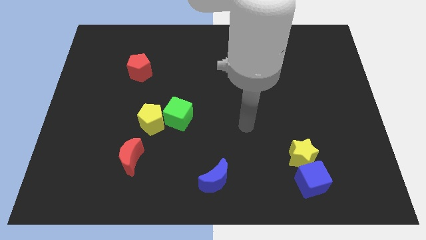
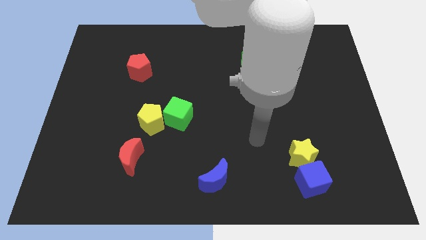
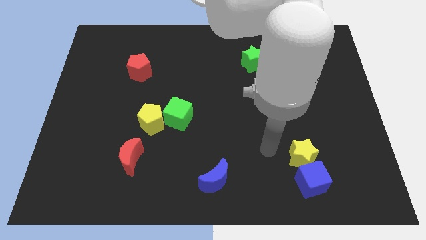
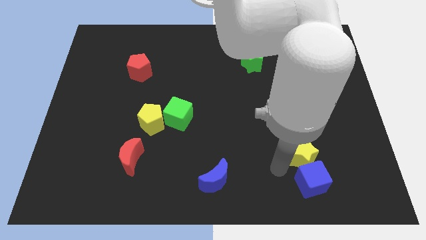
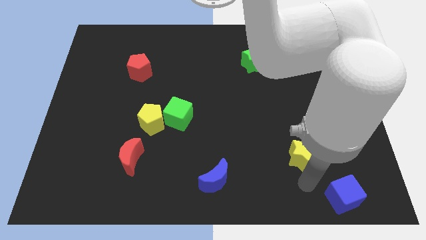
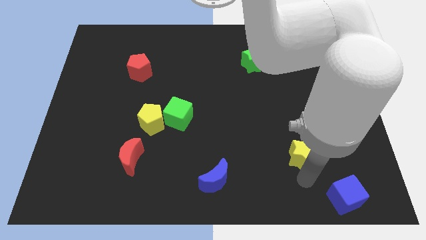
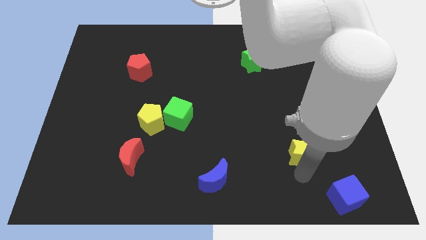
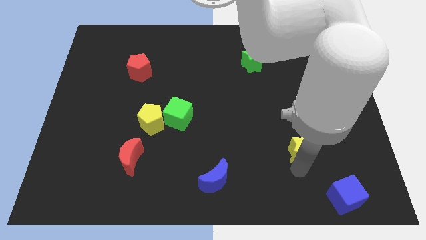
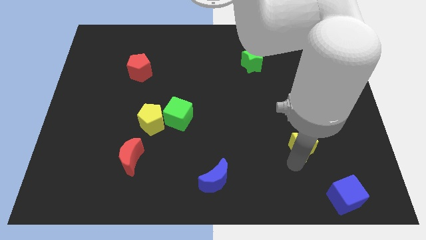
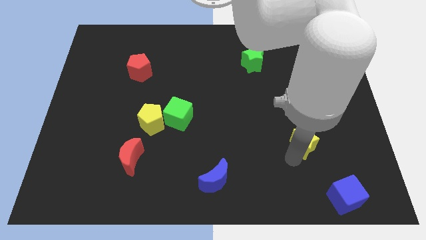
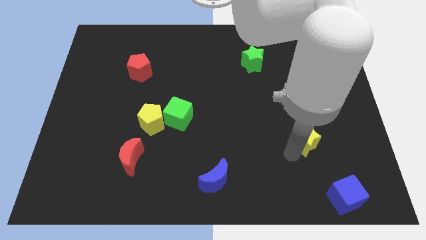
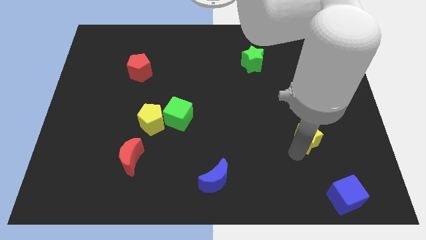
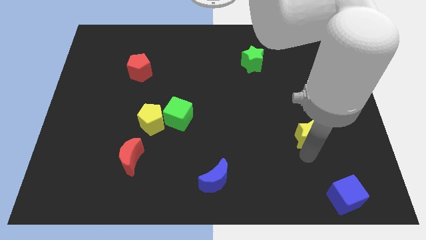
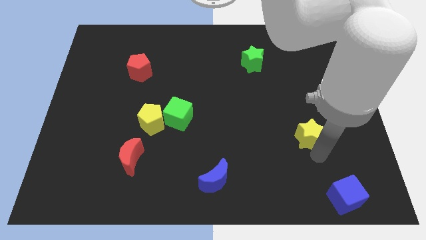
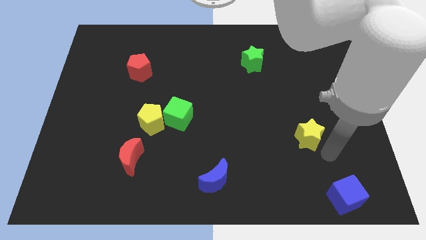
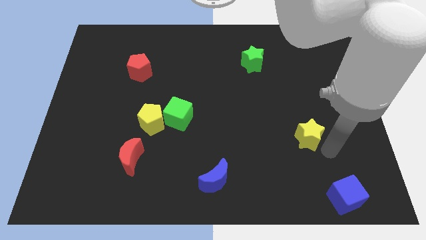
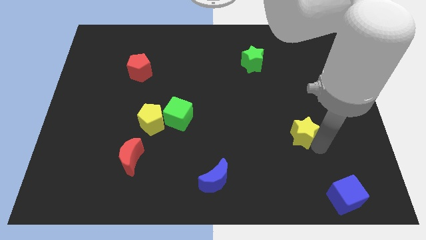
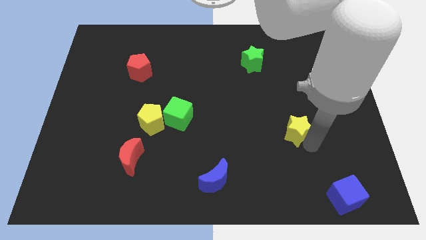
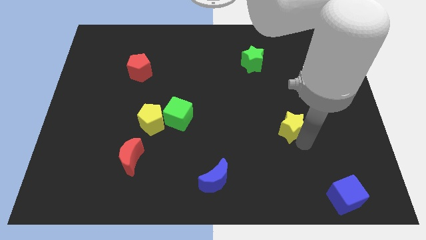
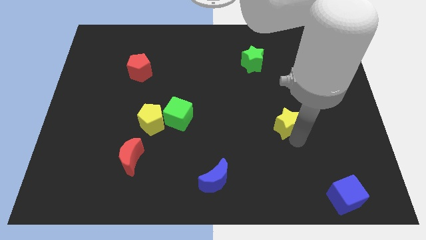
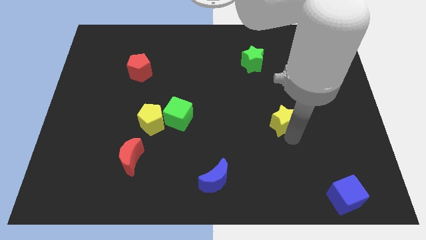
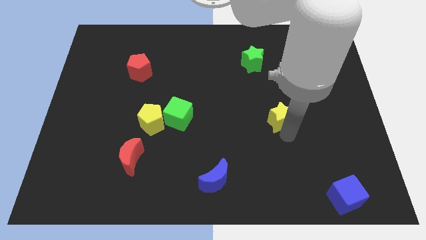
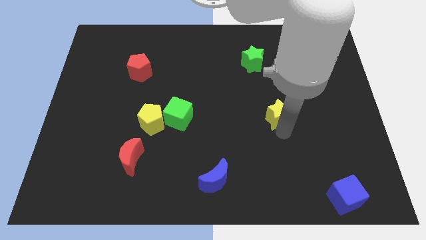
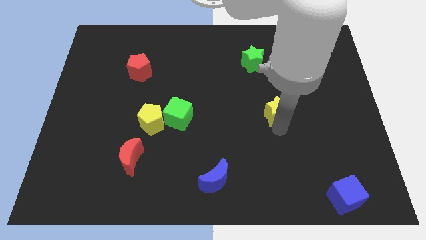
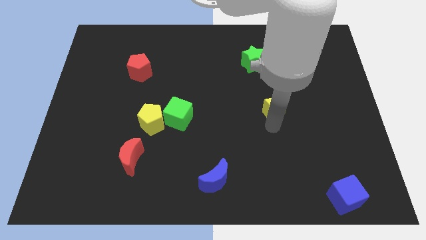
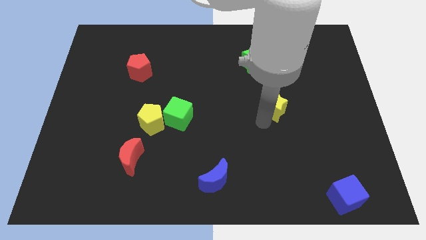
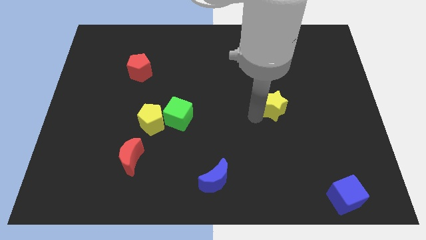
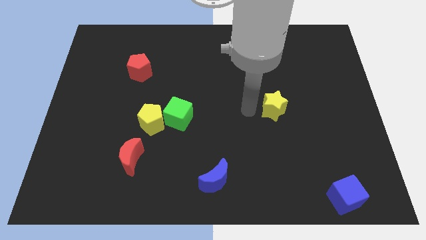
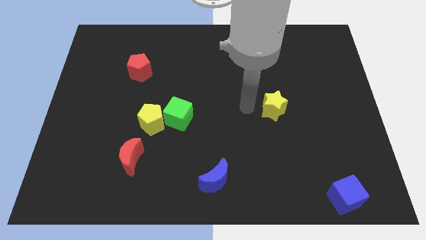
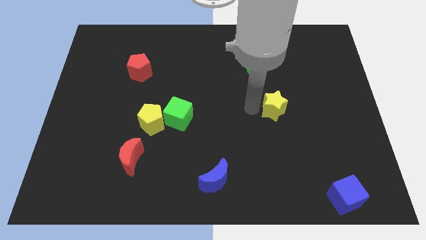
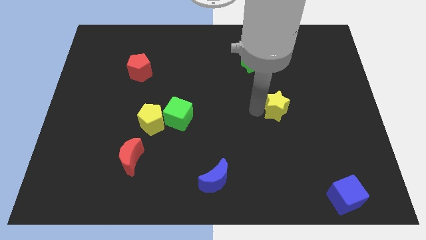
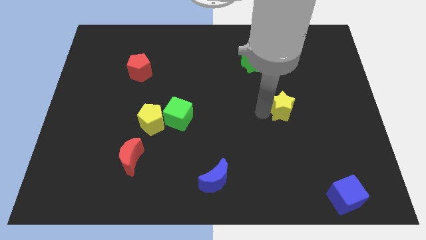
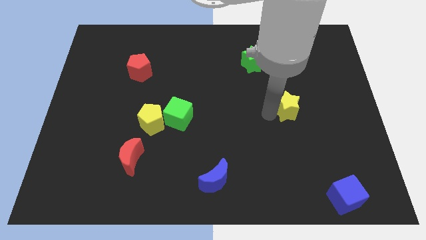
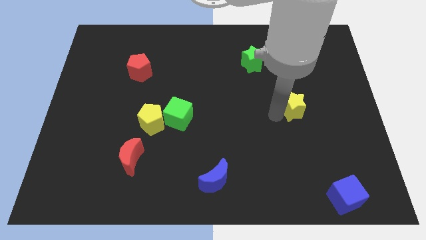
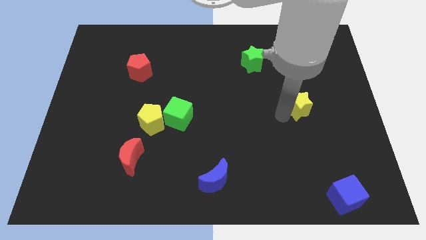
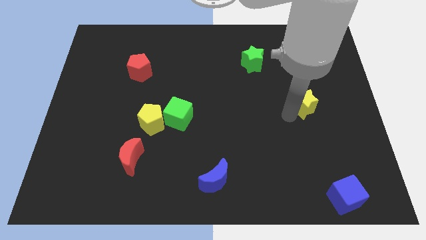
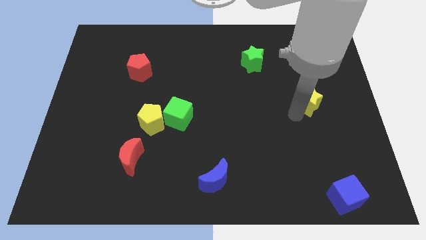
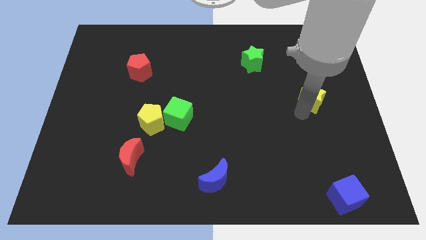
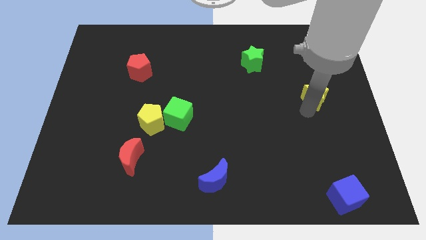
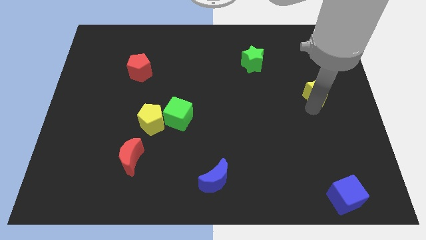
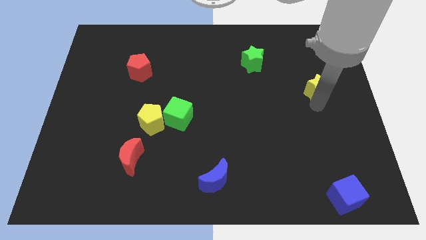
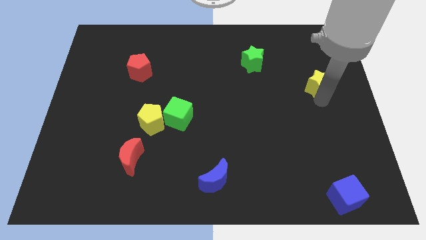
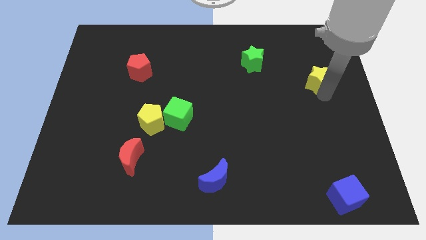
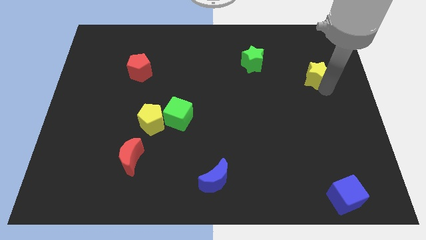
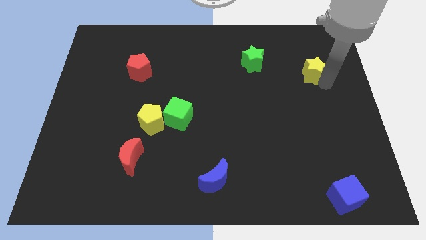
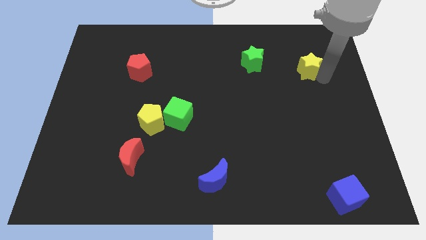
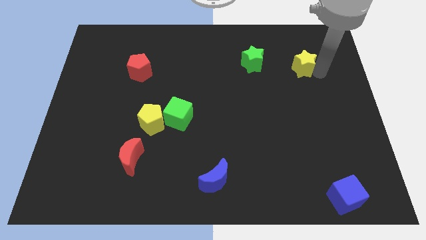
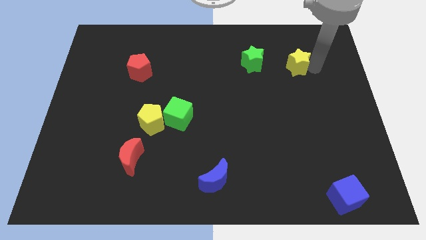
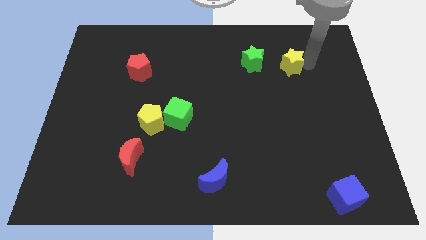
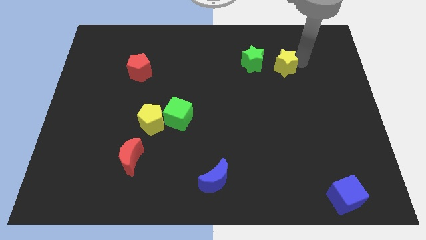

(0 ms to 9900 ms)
move the yellow star to the bottom right side of the green star

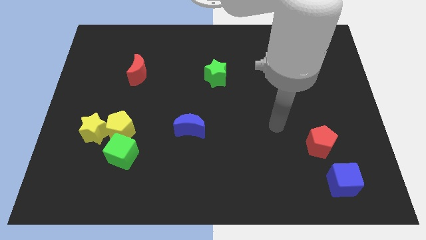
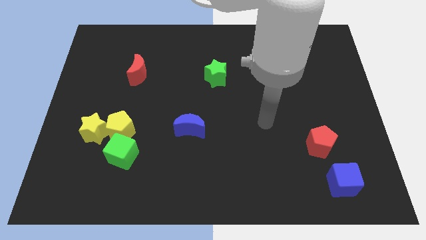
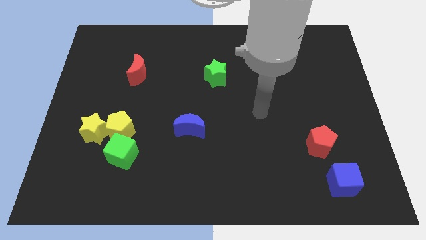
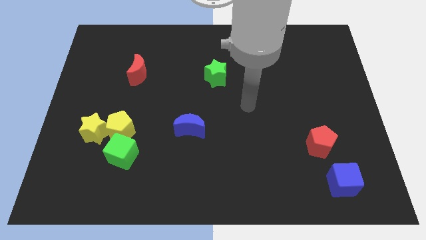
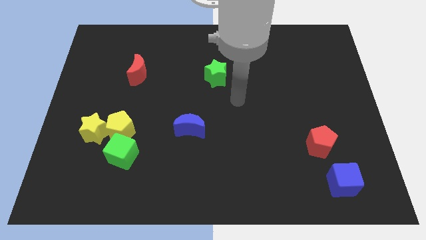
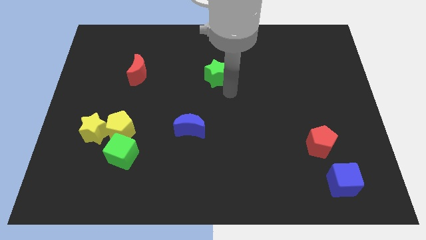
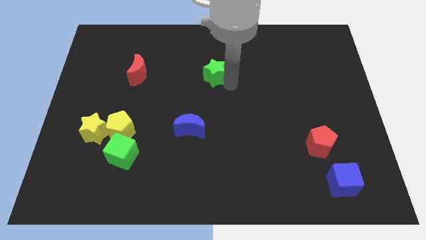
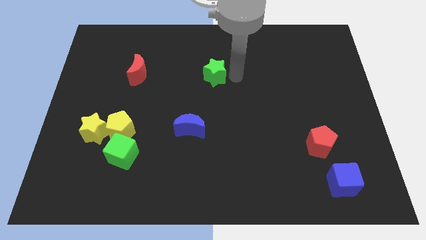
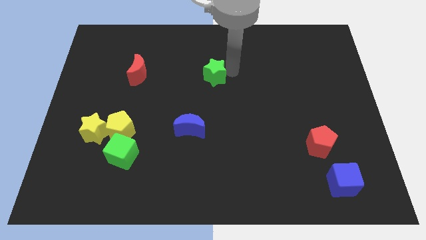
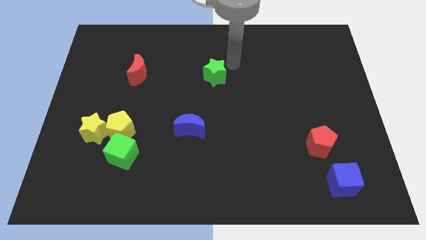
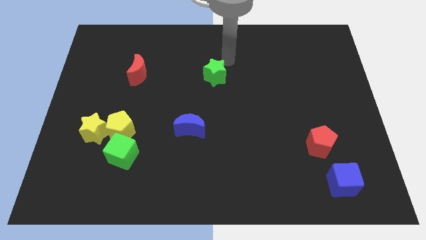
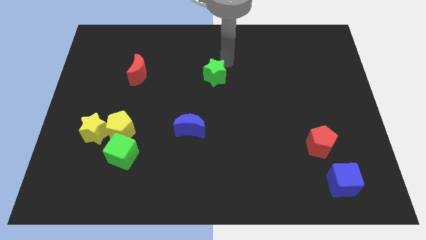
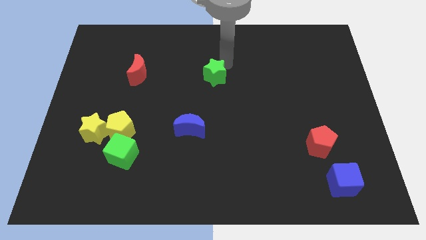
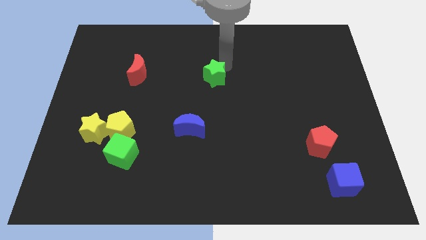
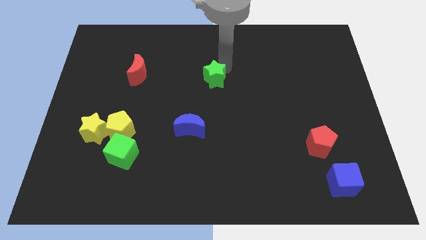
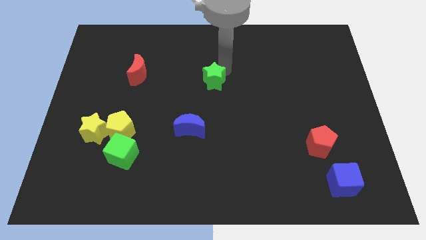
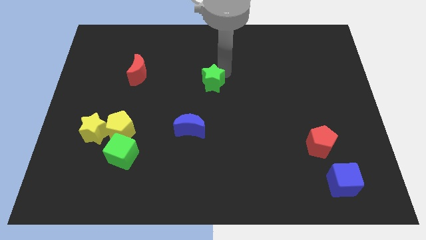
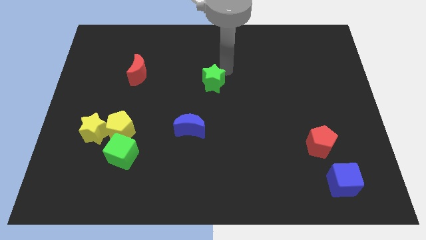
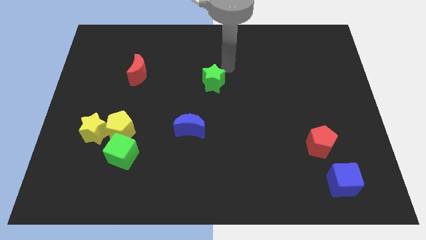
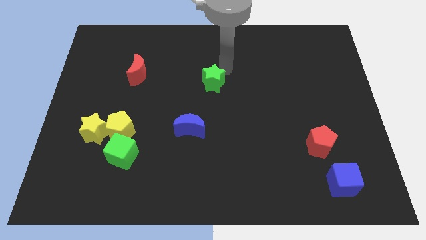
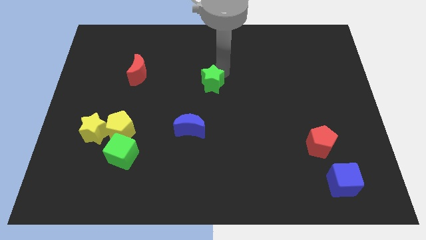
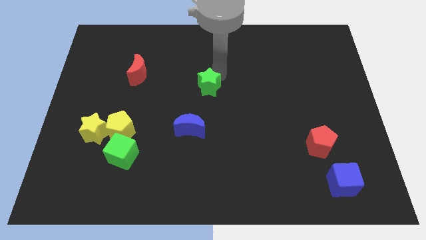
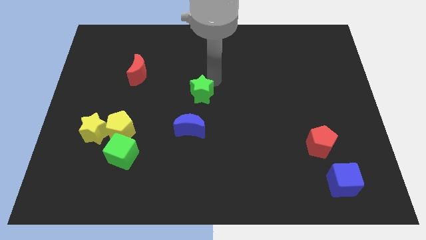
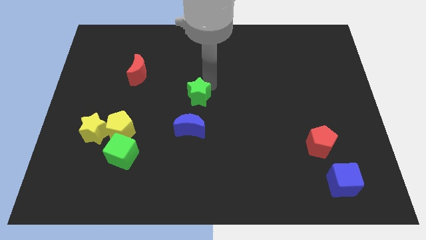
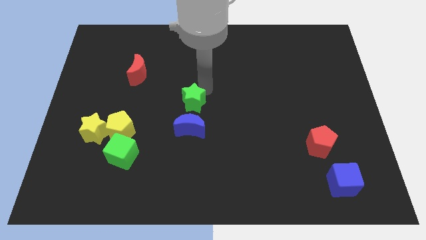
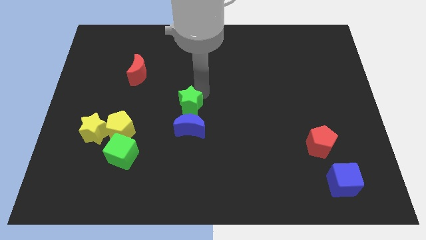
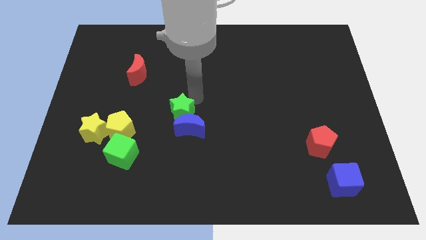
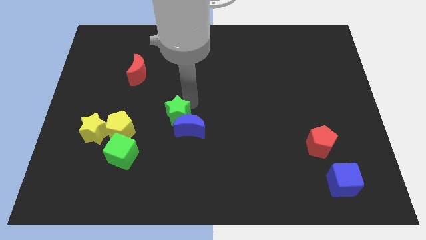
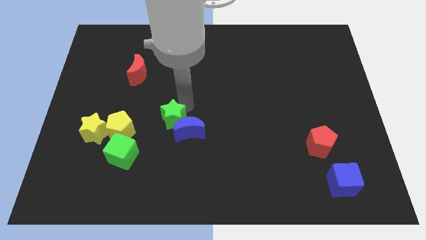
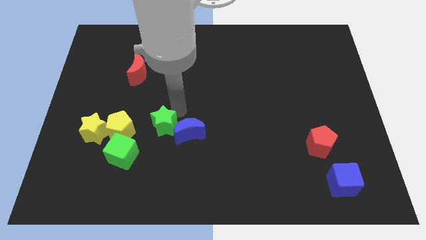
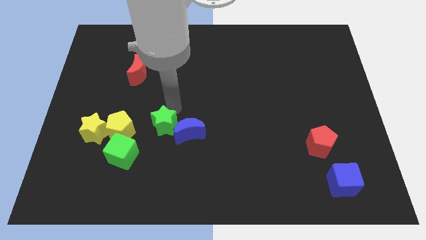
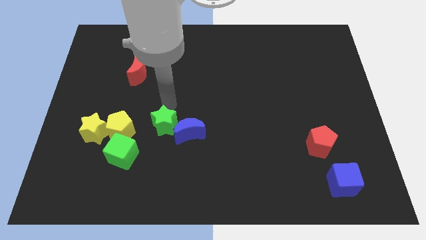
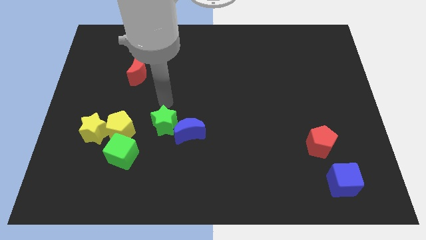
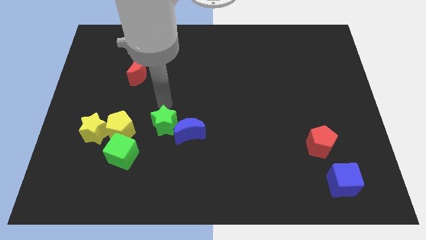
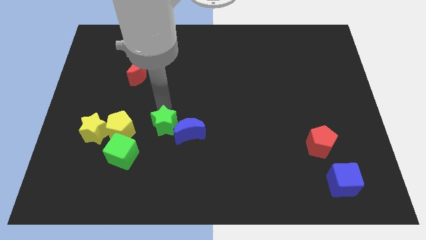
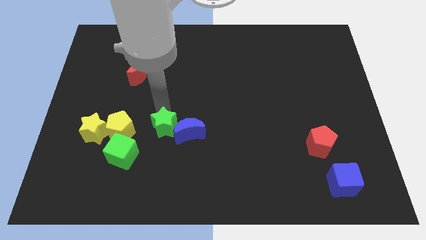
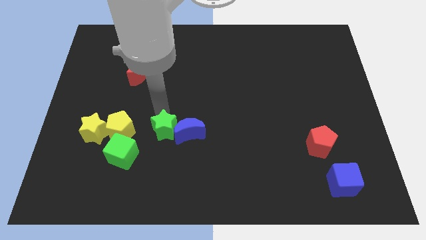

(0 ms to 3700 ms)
move the green star diagonally down and to the left of the blue moon
